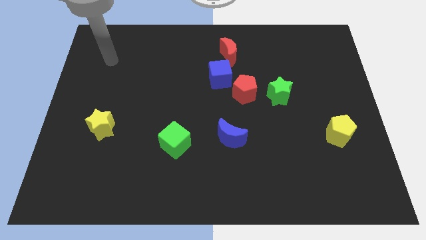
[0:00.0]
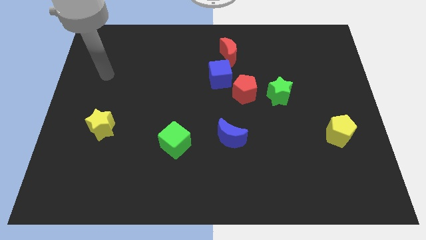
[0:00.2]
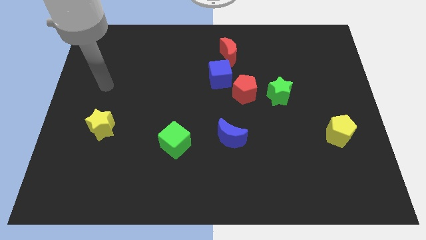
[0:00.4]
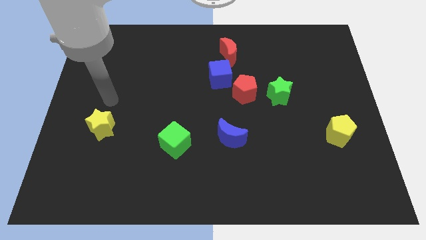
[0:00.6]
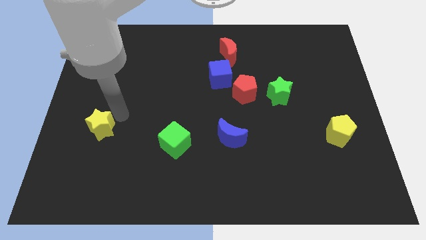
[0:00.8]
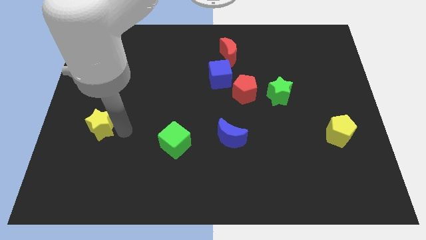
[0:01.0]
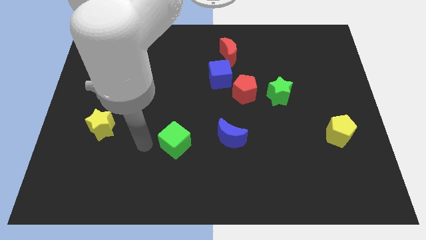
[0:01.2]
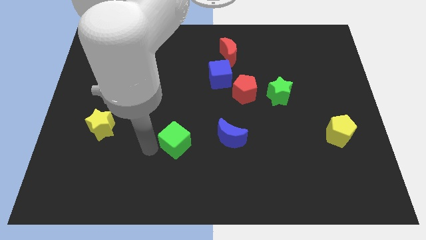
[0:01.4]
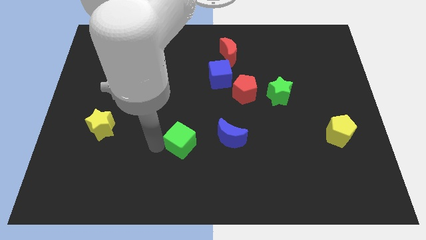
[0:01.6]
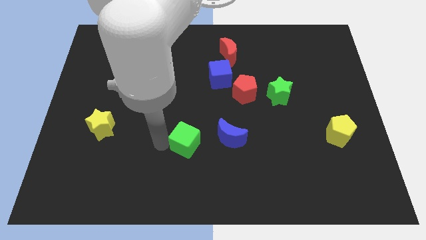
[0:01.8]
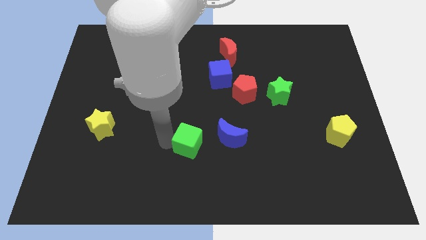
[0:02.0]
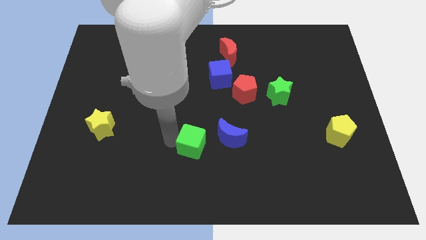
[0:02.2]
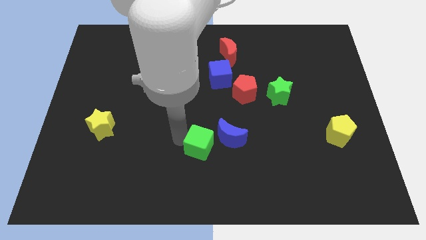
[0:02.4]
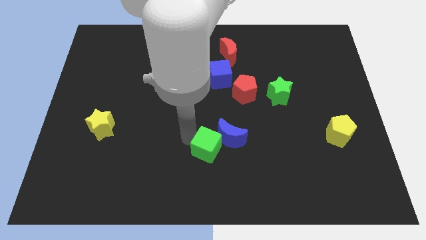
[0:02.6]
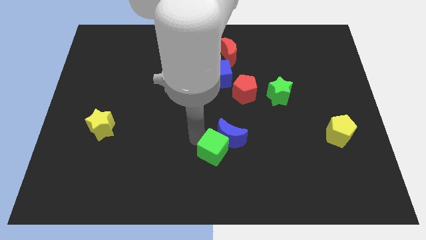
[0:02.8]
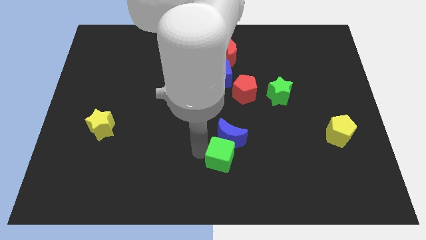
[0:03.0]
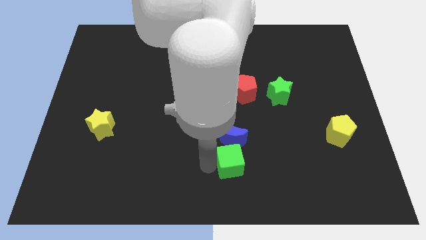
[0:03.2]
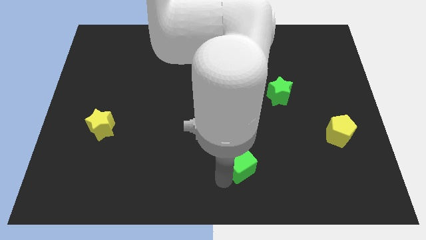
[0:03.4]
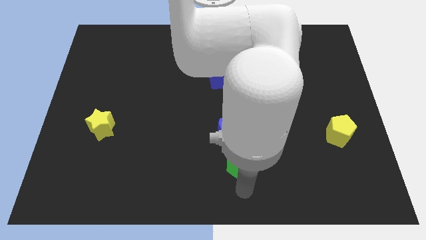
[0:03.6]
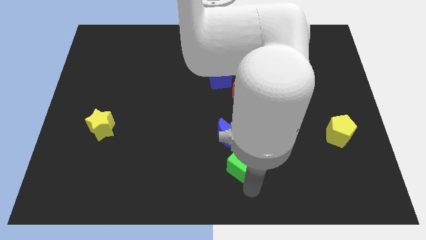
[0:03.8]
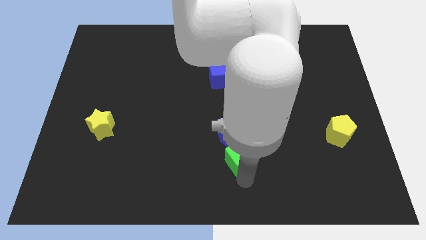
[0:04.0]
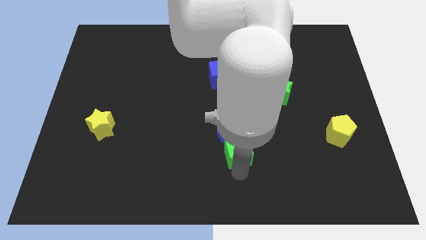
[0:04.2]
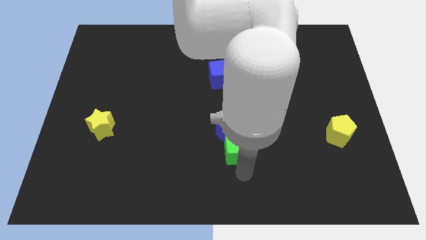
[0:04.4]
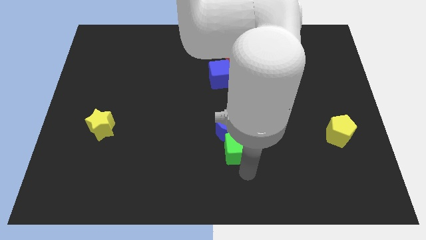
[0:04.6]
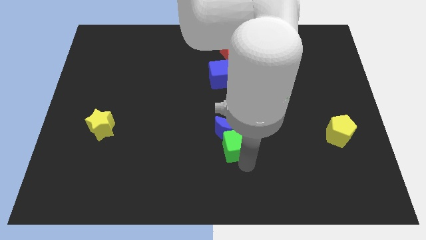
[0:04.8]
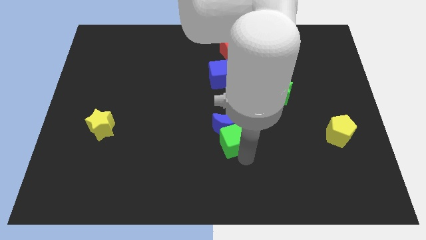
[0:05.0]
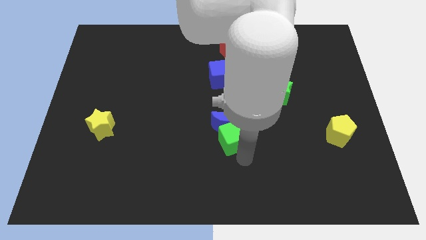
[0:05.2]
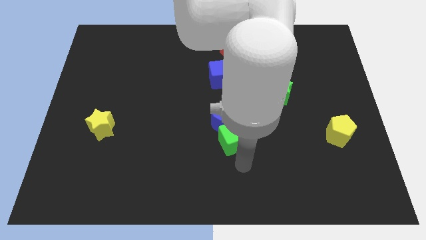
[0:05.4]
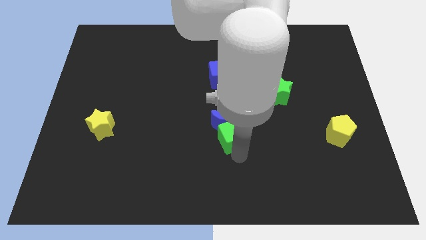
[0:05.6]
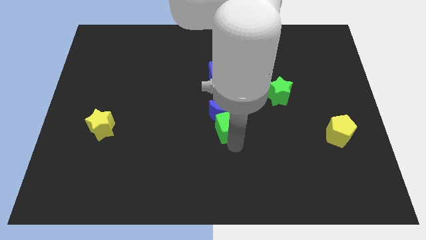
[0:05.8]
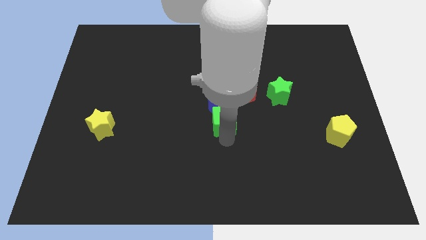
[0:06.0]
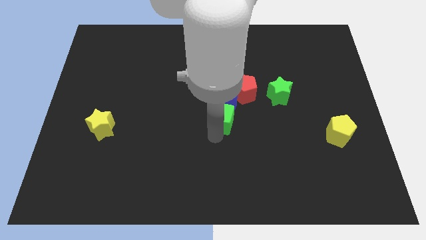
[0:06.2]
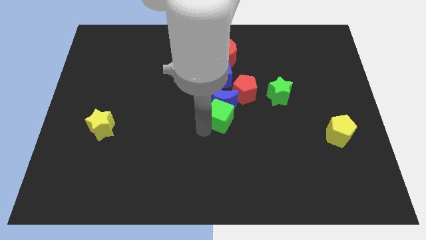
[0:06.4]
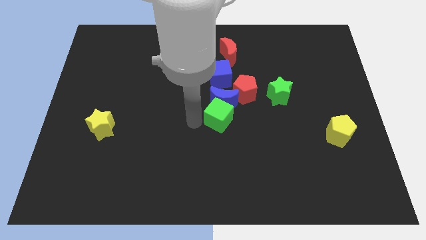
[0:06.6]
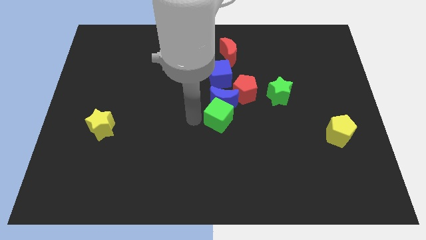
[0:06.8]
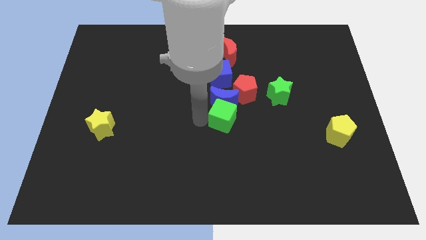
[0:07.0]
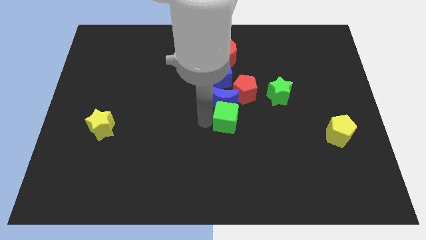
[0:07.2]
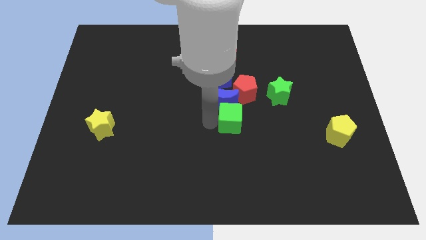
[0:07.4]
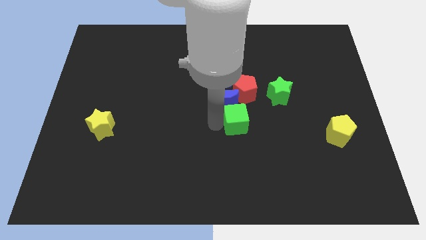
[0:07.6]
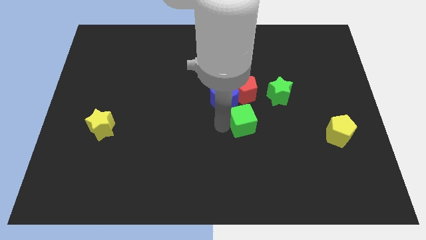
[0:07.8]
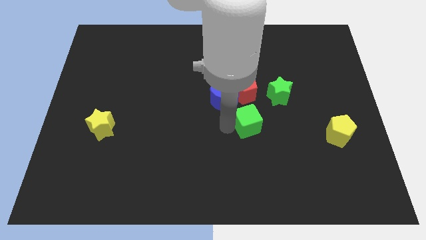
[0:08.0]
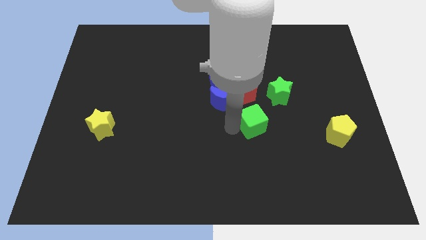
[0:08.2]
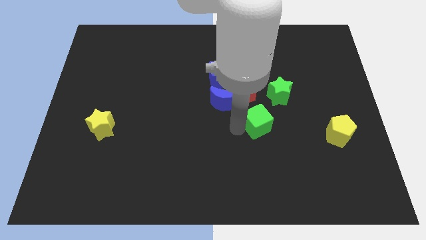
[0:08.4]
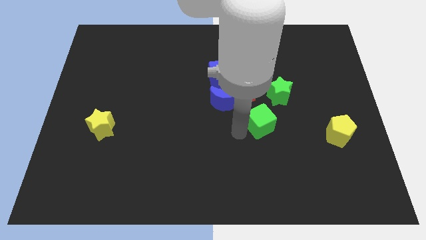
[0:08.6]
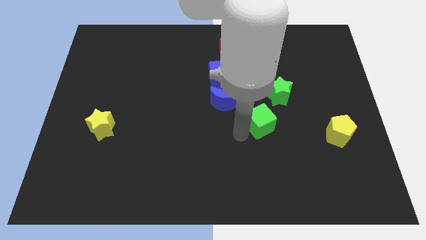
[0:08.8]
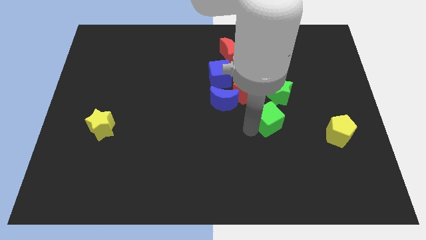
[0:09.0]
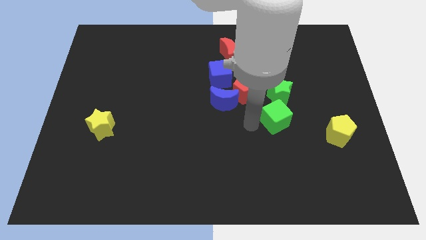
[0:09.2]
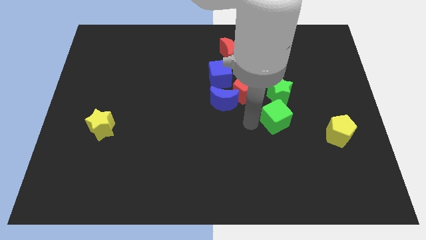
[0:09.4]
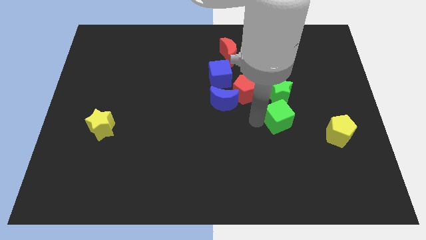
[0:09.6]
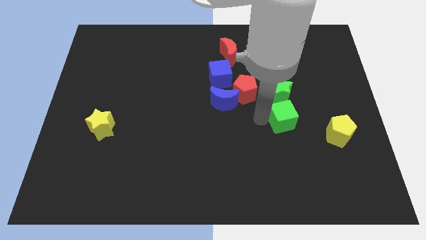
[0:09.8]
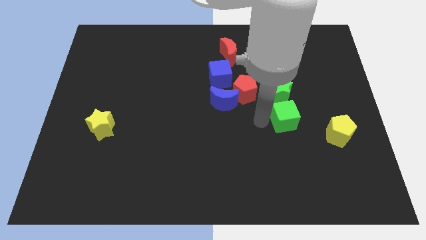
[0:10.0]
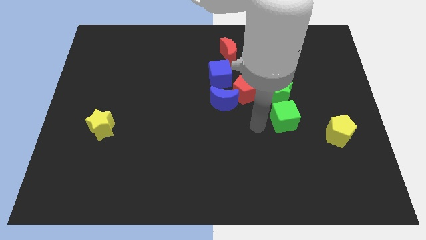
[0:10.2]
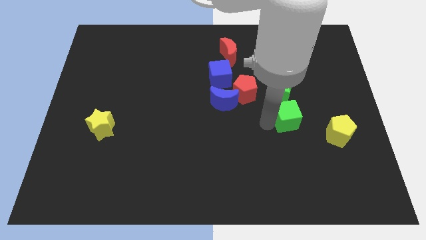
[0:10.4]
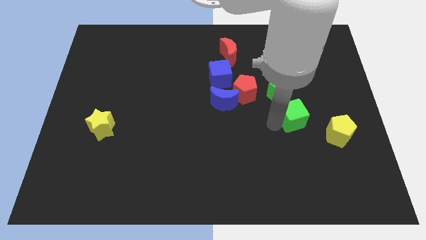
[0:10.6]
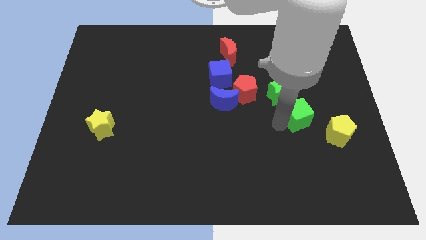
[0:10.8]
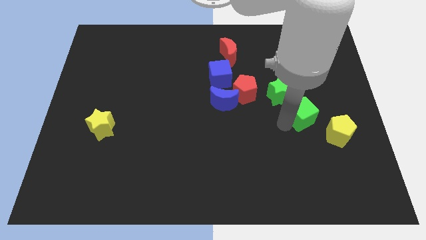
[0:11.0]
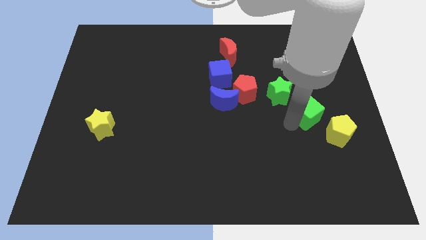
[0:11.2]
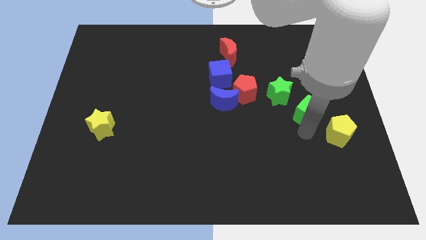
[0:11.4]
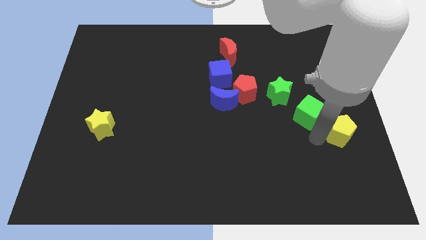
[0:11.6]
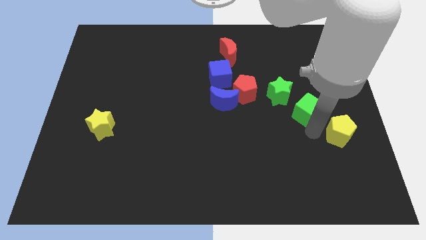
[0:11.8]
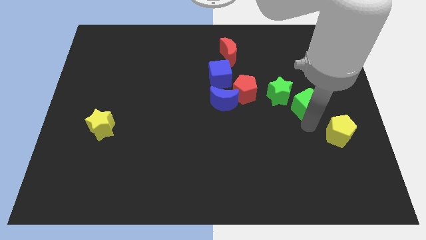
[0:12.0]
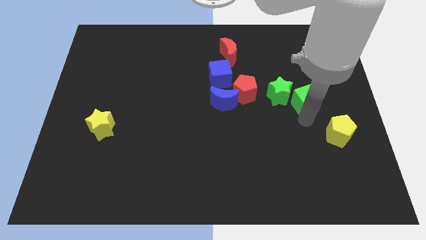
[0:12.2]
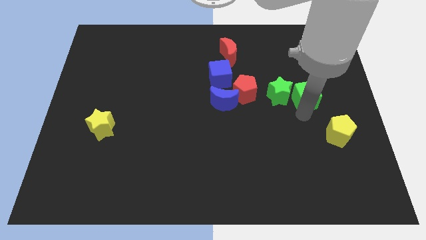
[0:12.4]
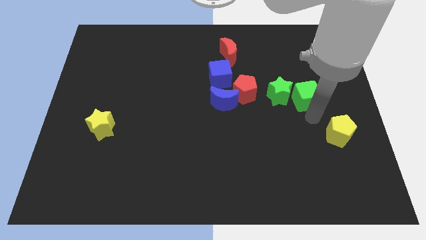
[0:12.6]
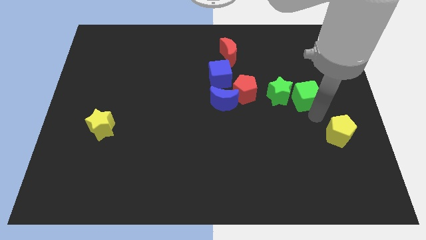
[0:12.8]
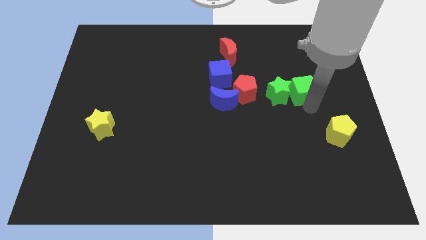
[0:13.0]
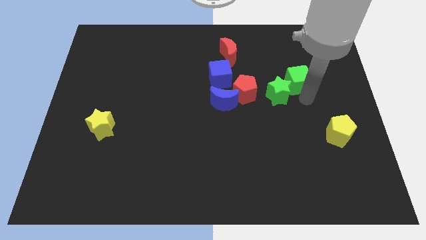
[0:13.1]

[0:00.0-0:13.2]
push the green cube above the green star
